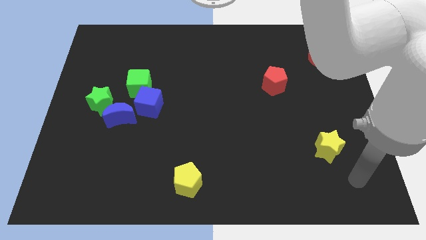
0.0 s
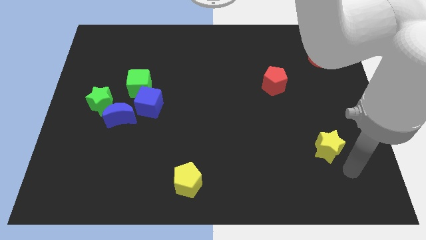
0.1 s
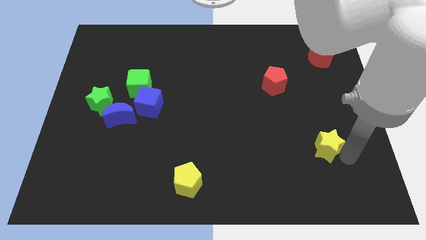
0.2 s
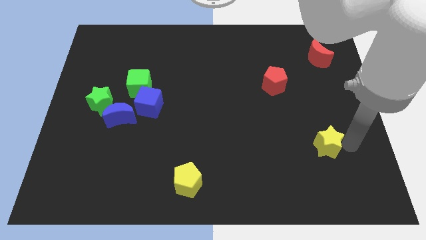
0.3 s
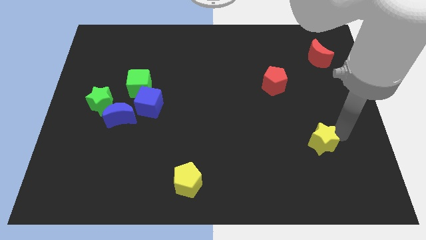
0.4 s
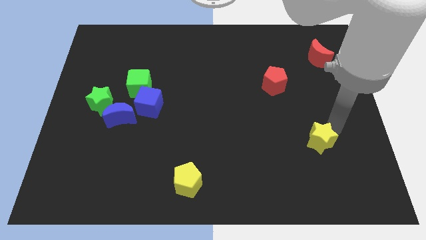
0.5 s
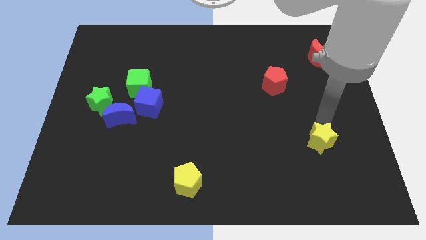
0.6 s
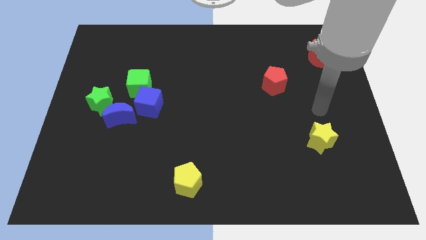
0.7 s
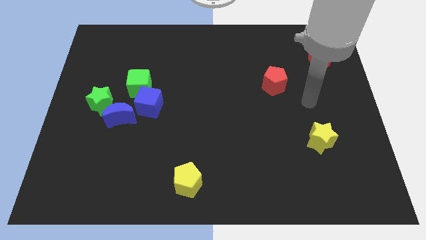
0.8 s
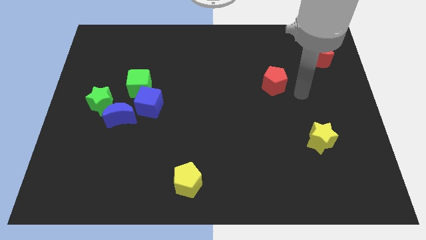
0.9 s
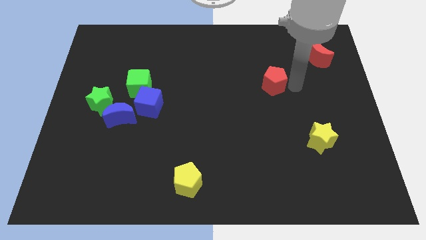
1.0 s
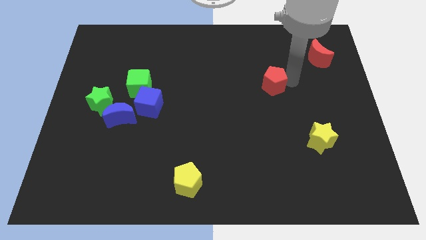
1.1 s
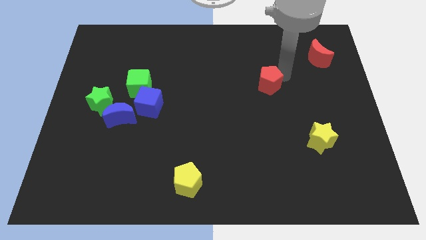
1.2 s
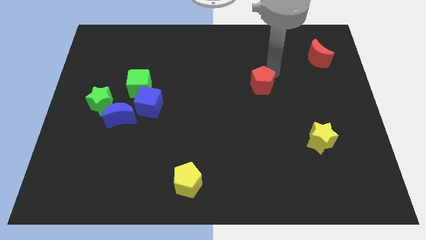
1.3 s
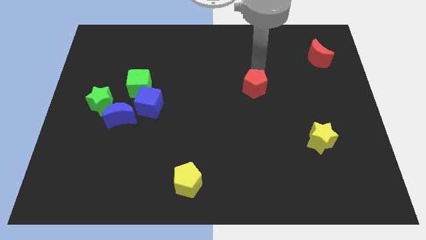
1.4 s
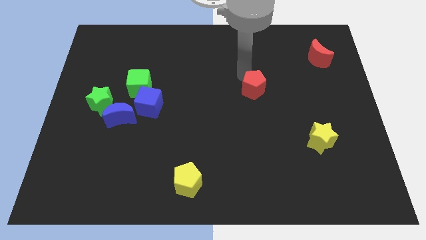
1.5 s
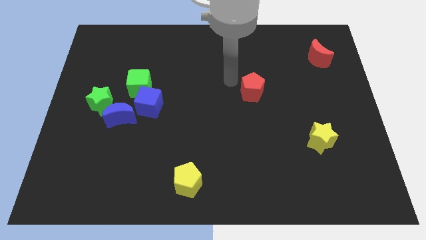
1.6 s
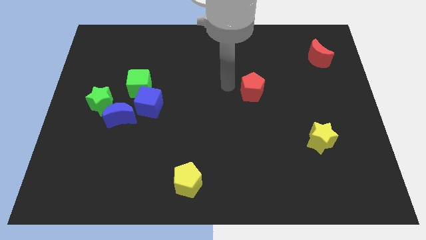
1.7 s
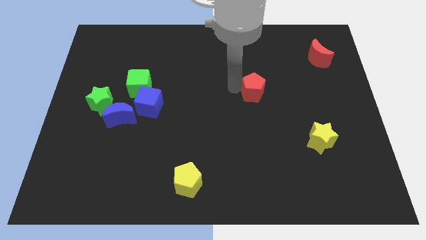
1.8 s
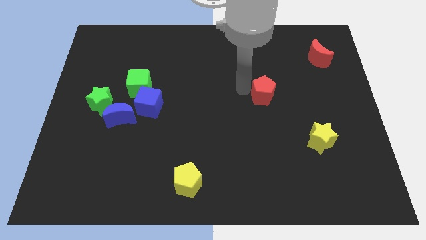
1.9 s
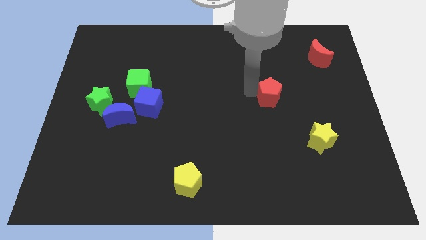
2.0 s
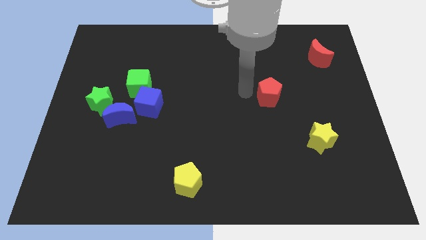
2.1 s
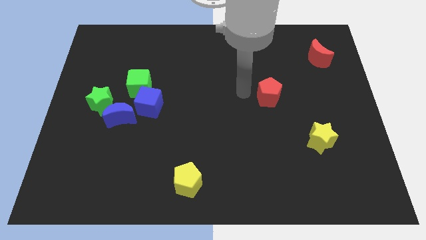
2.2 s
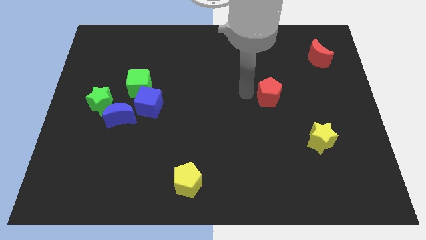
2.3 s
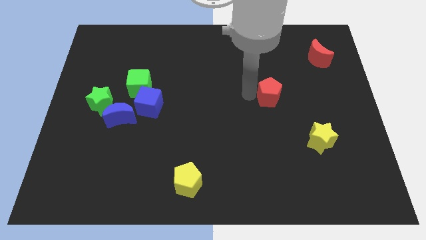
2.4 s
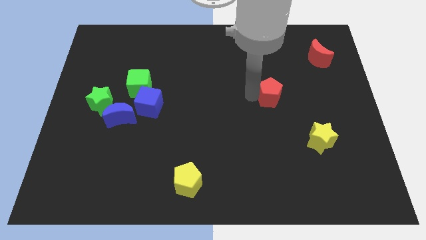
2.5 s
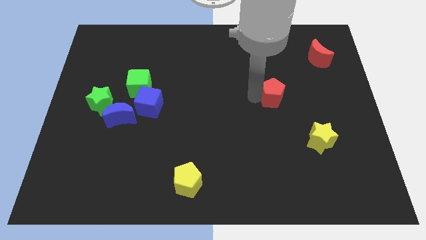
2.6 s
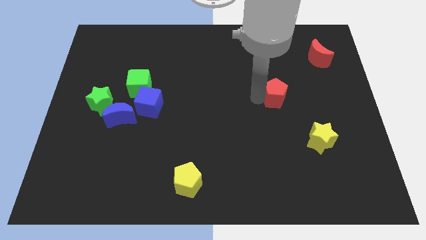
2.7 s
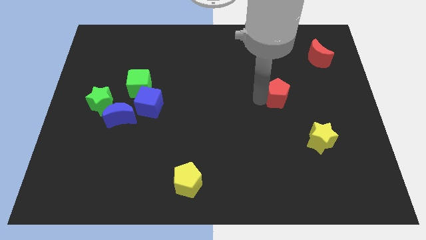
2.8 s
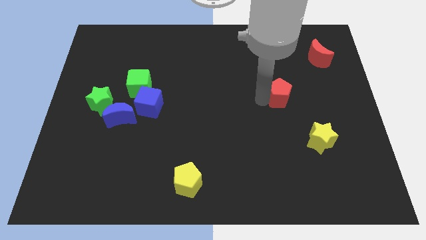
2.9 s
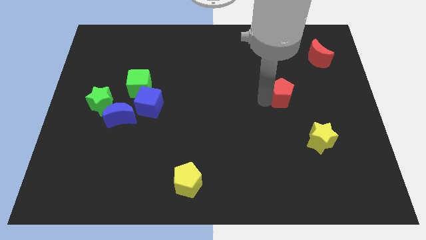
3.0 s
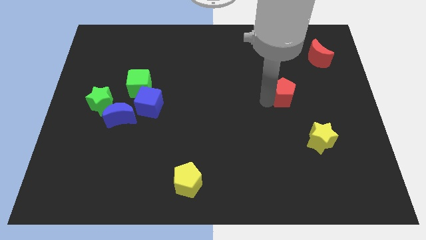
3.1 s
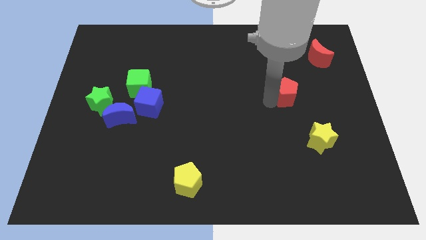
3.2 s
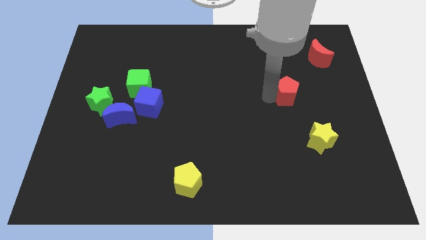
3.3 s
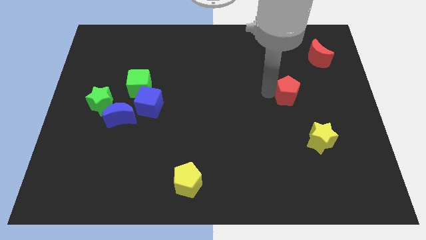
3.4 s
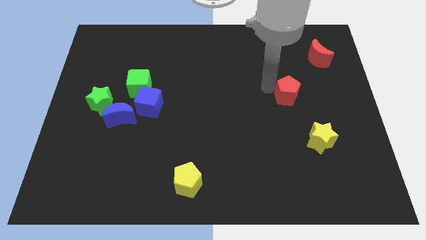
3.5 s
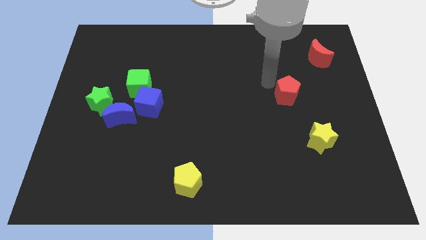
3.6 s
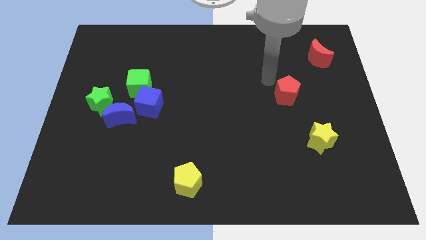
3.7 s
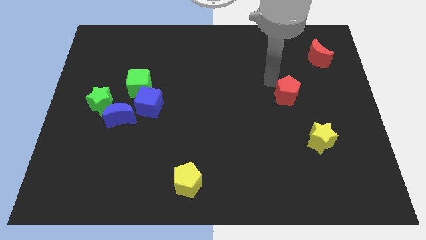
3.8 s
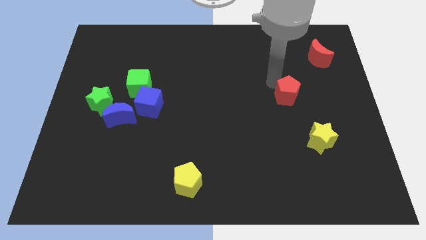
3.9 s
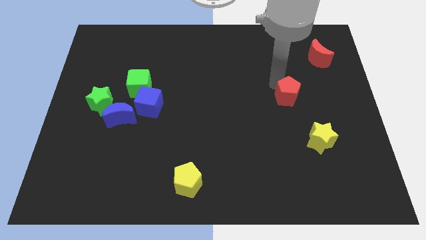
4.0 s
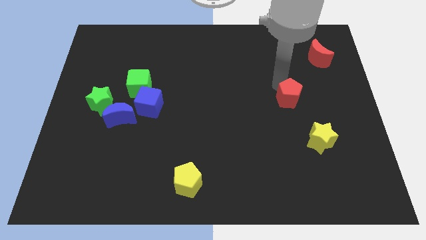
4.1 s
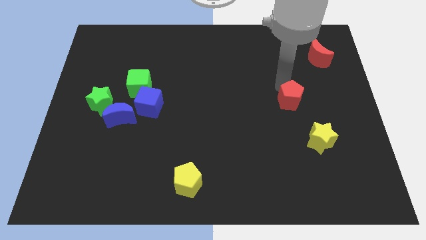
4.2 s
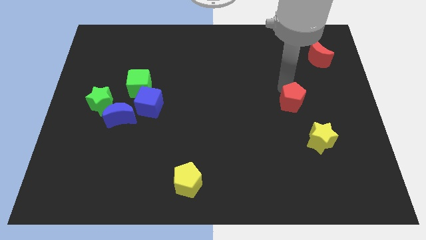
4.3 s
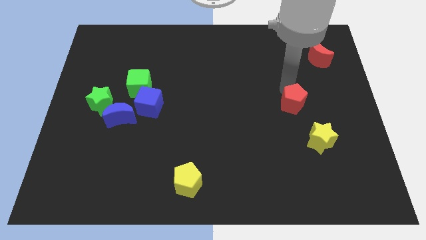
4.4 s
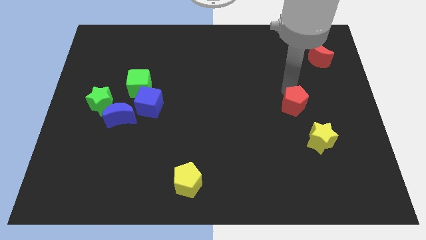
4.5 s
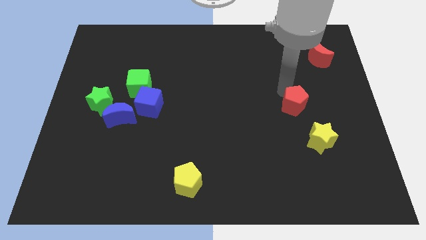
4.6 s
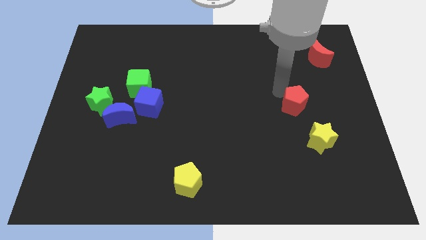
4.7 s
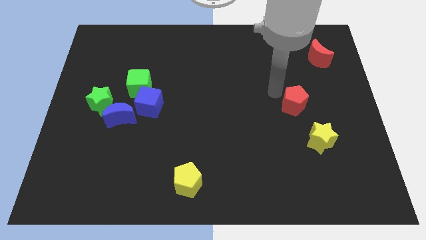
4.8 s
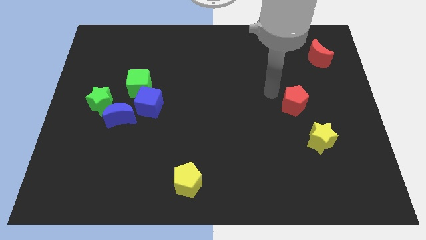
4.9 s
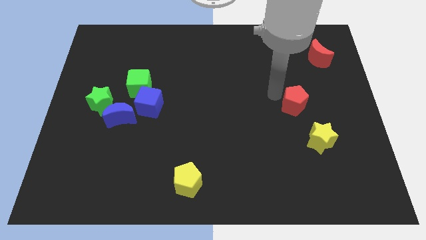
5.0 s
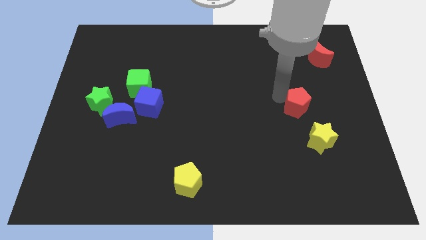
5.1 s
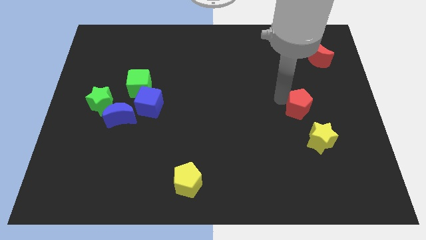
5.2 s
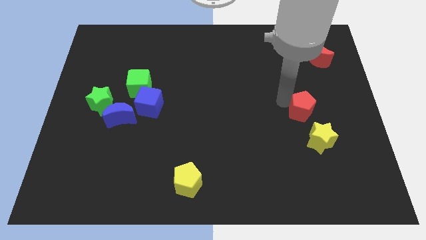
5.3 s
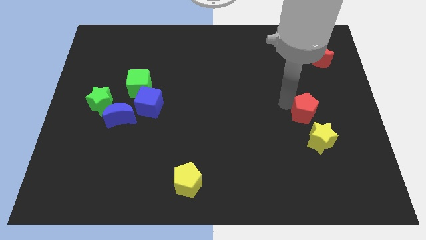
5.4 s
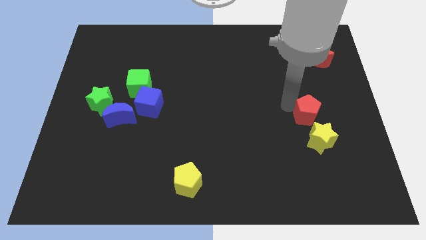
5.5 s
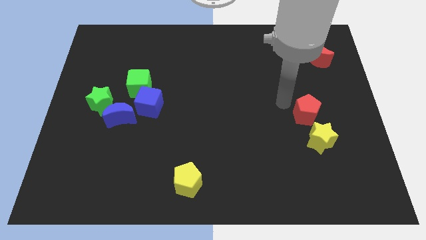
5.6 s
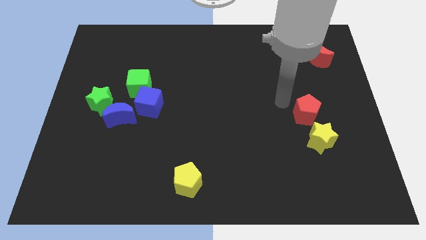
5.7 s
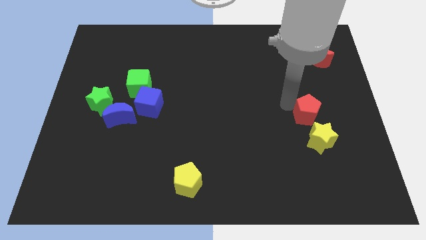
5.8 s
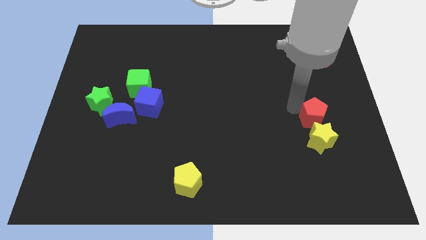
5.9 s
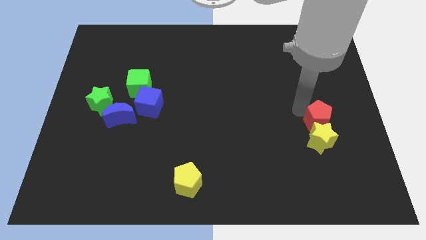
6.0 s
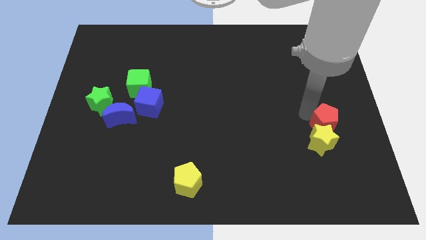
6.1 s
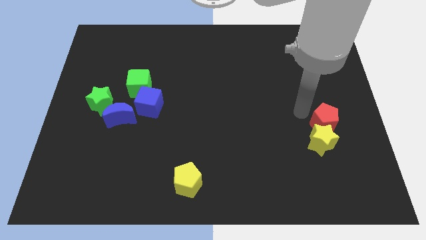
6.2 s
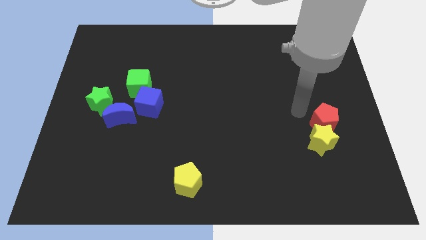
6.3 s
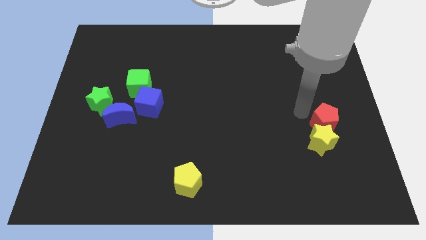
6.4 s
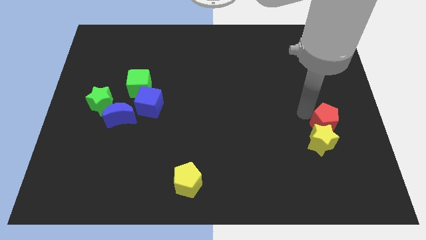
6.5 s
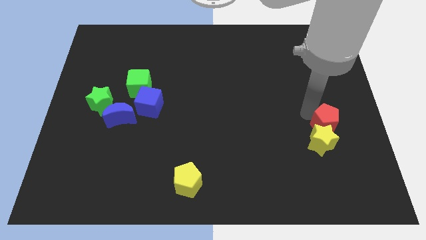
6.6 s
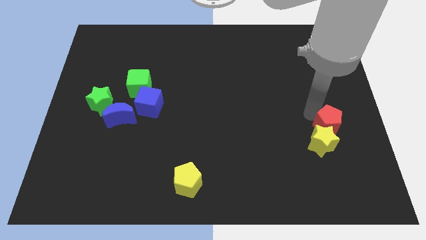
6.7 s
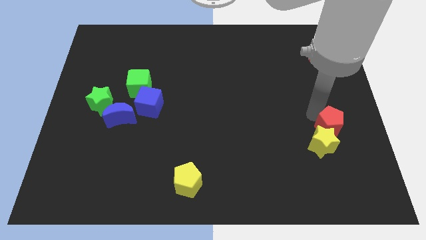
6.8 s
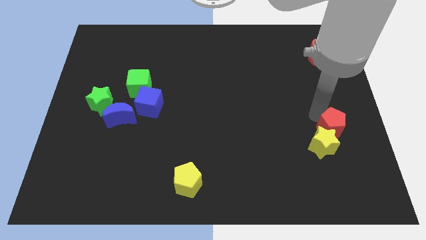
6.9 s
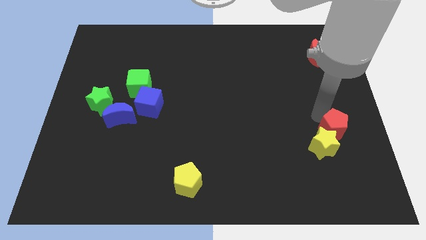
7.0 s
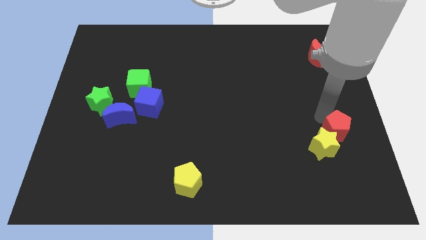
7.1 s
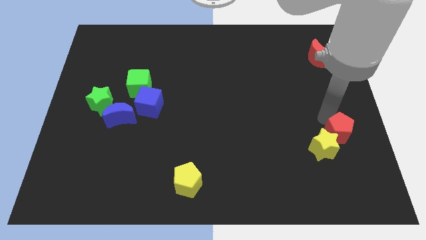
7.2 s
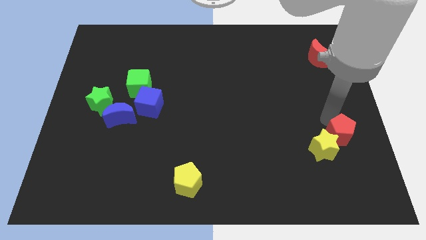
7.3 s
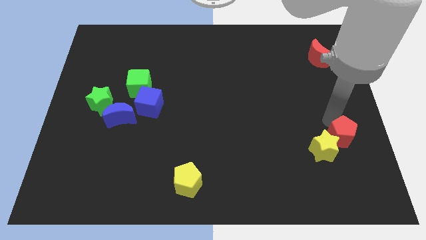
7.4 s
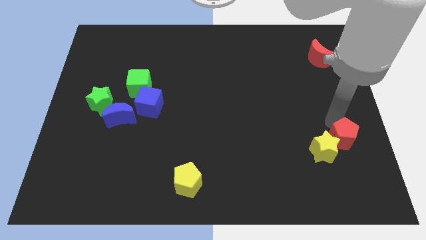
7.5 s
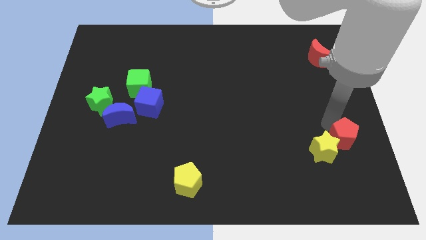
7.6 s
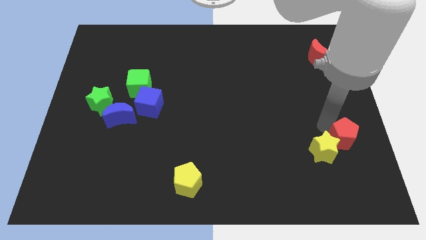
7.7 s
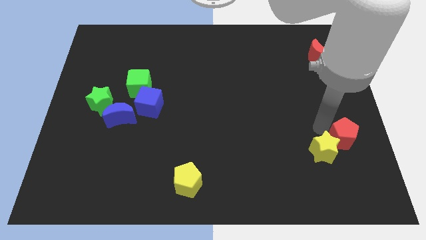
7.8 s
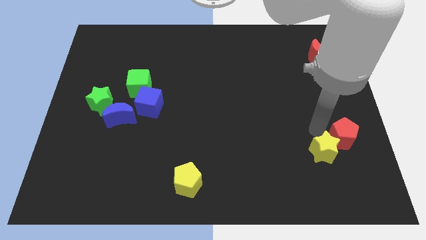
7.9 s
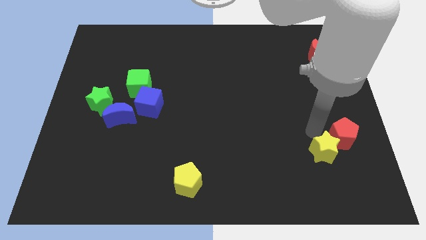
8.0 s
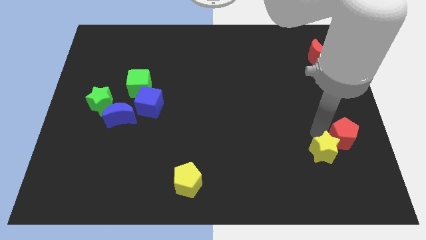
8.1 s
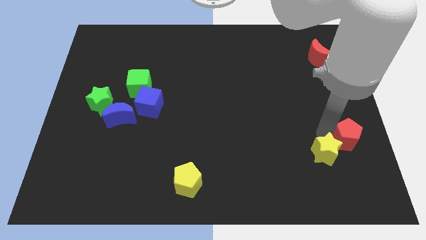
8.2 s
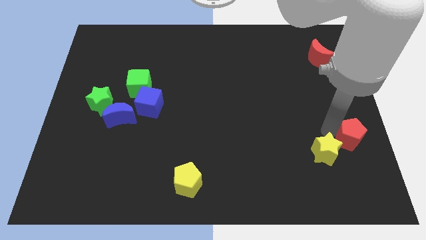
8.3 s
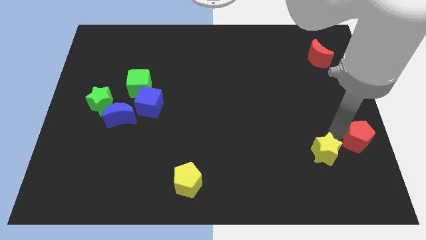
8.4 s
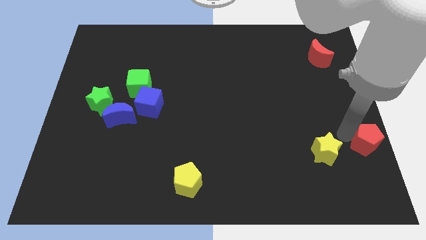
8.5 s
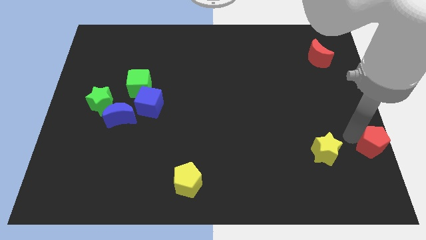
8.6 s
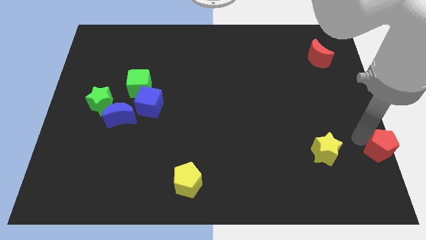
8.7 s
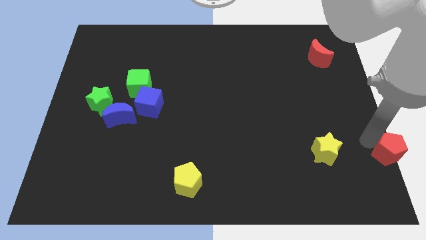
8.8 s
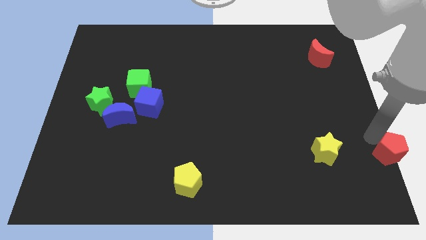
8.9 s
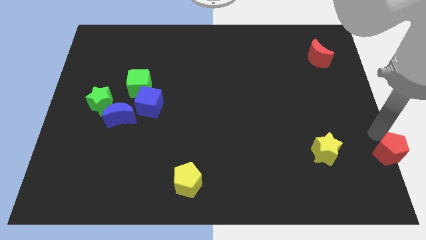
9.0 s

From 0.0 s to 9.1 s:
push the red pentagon to the lower right corner
